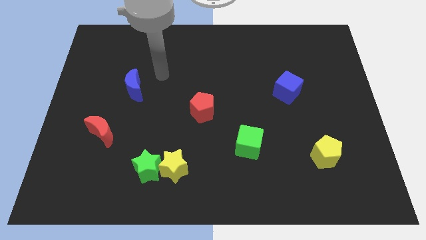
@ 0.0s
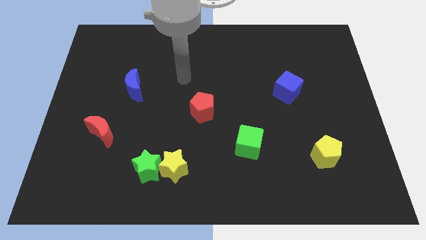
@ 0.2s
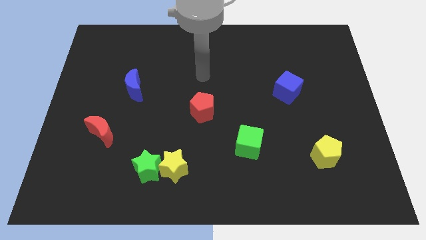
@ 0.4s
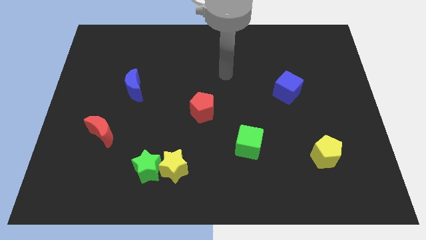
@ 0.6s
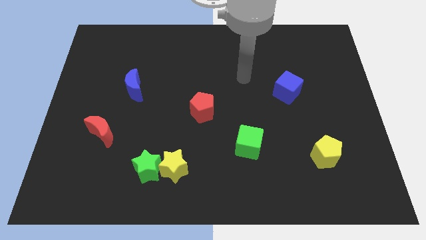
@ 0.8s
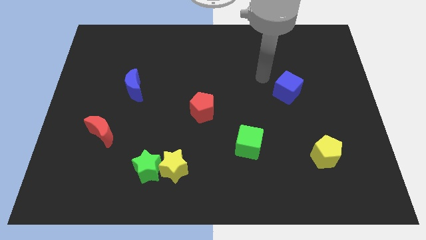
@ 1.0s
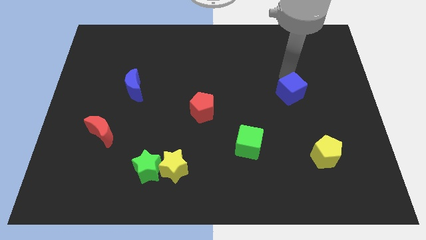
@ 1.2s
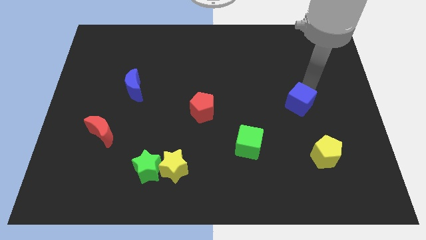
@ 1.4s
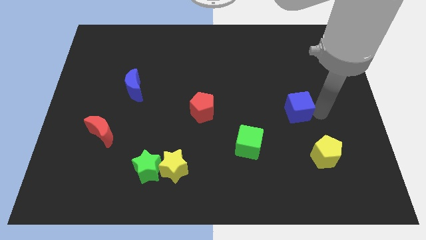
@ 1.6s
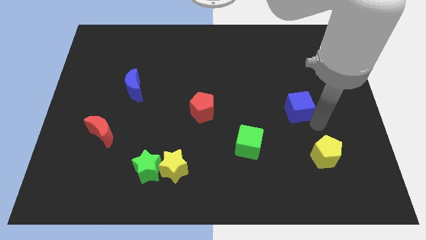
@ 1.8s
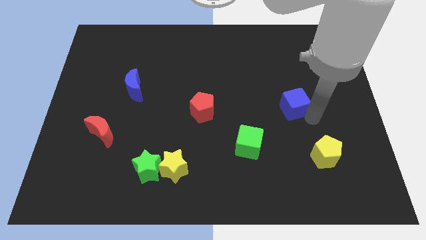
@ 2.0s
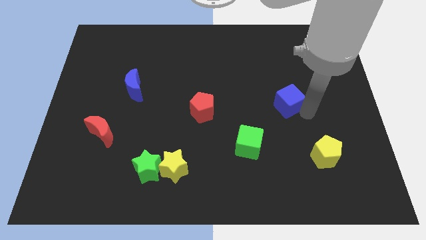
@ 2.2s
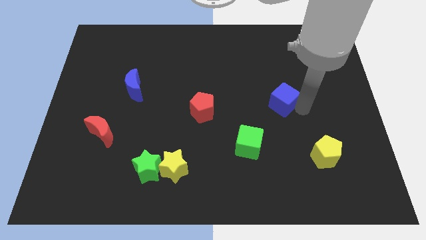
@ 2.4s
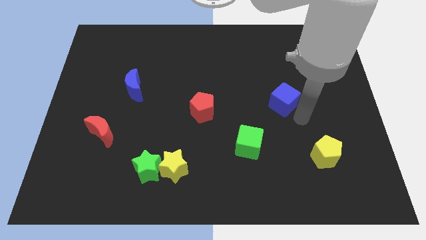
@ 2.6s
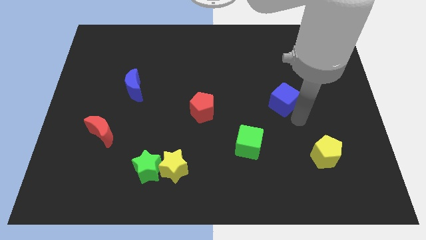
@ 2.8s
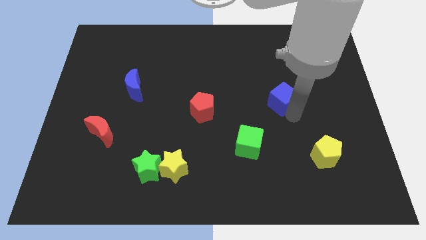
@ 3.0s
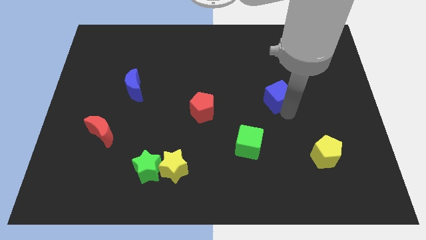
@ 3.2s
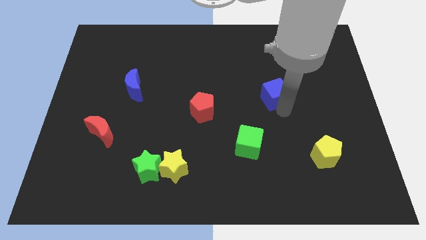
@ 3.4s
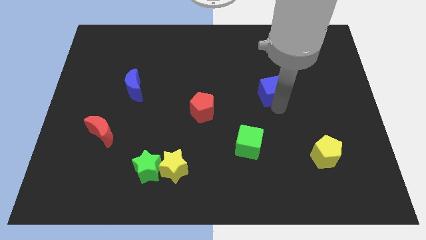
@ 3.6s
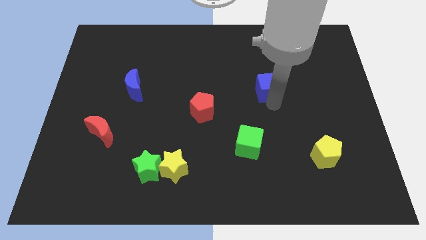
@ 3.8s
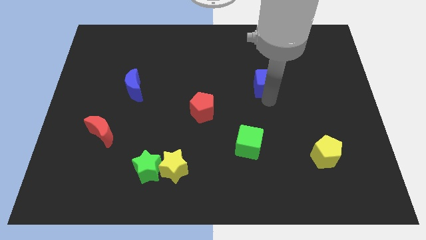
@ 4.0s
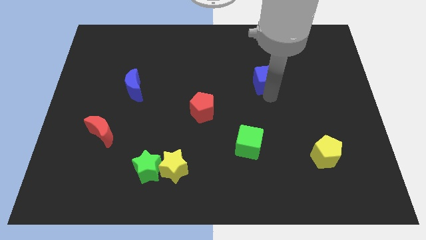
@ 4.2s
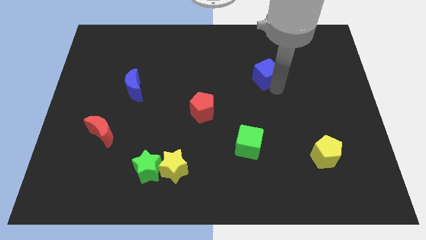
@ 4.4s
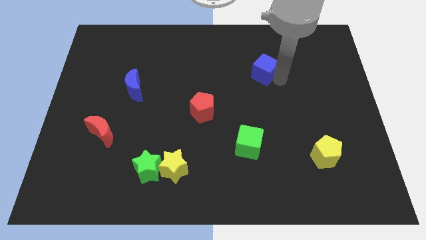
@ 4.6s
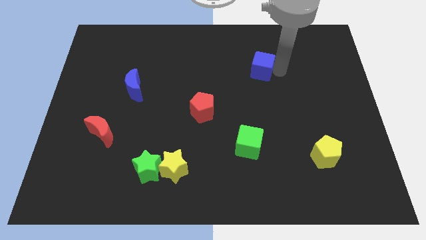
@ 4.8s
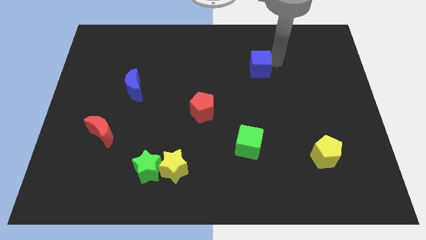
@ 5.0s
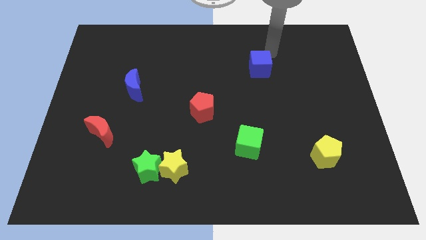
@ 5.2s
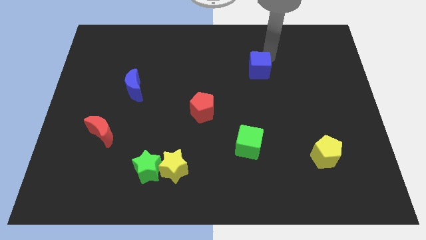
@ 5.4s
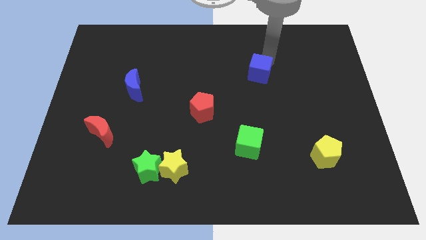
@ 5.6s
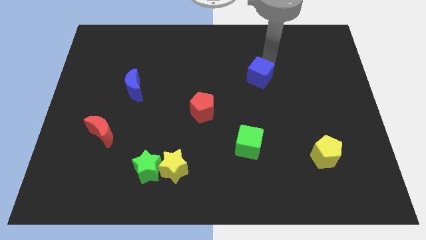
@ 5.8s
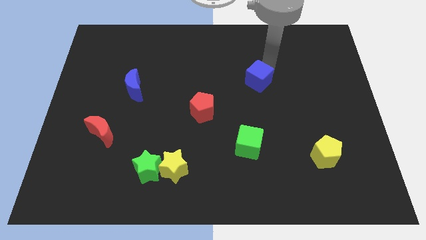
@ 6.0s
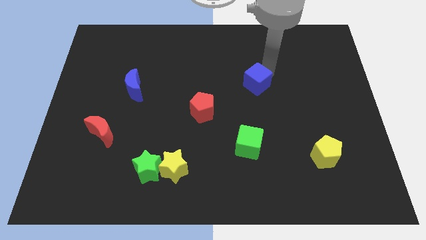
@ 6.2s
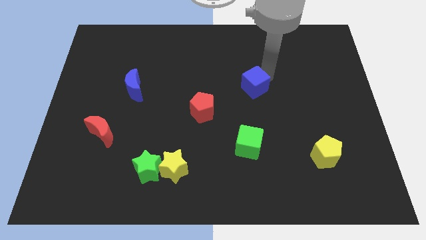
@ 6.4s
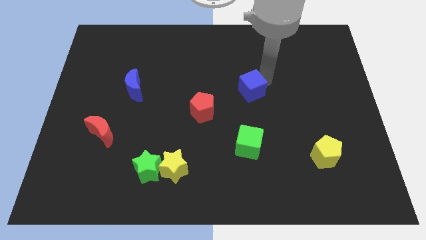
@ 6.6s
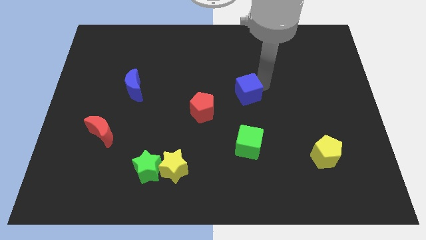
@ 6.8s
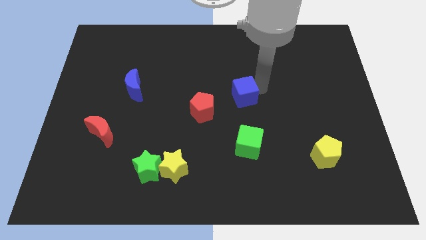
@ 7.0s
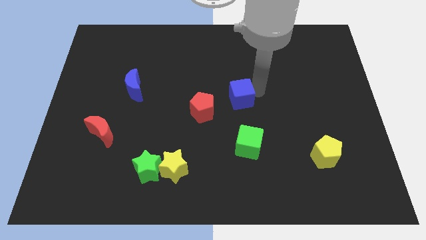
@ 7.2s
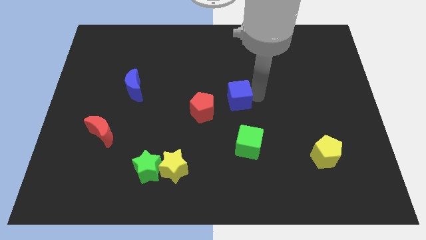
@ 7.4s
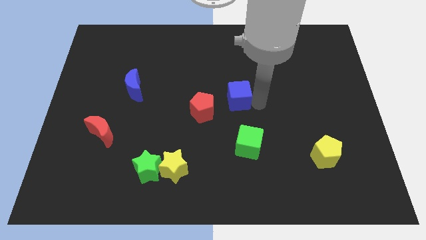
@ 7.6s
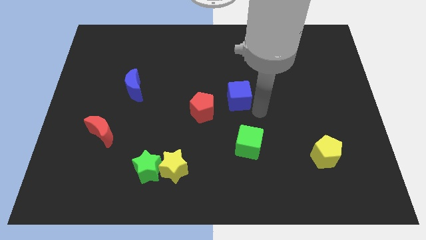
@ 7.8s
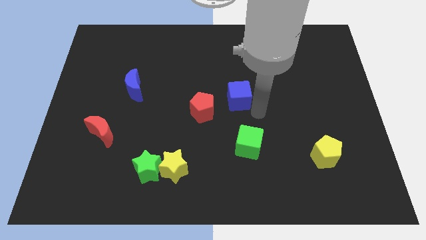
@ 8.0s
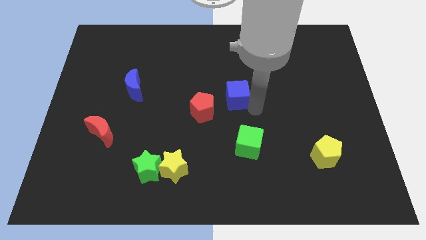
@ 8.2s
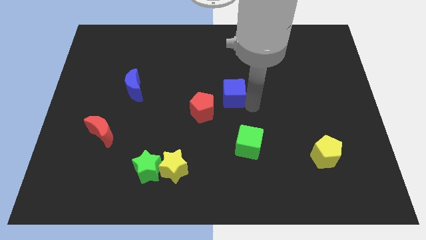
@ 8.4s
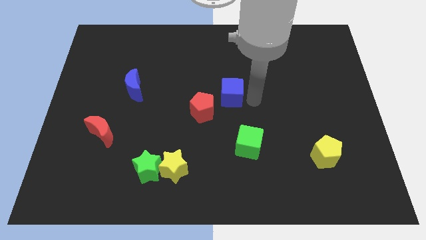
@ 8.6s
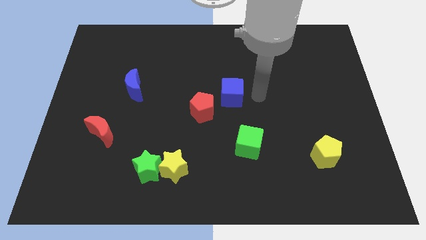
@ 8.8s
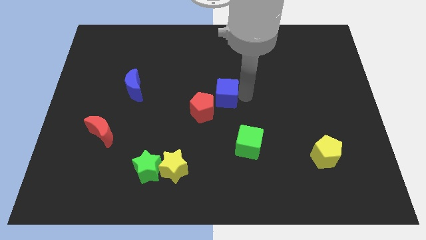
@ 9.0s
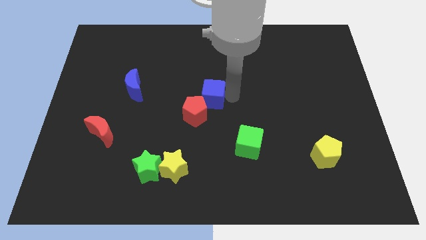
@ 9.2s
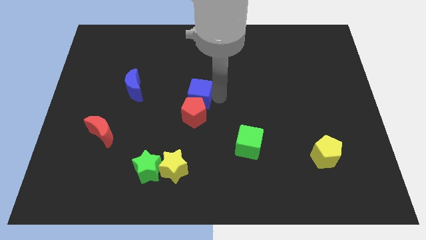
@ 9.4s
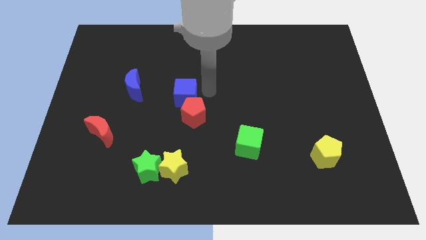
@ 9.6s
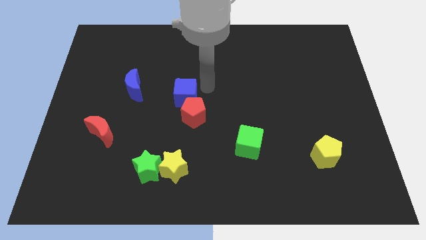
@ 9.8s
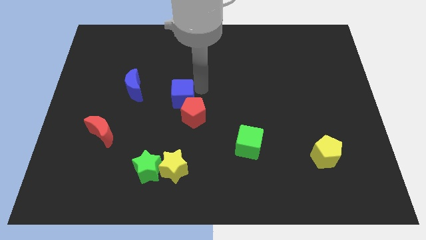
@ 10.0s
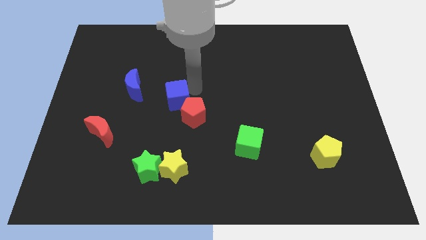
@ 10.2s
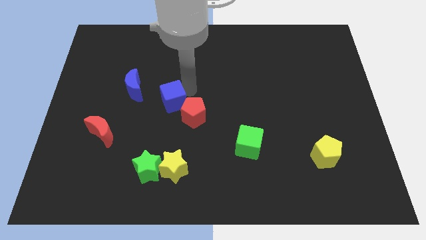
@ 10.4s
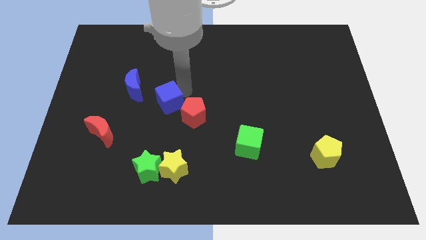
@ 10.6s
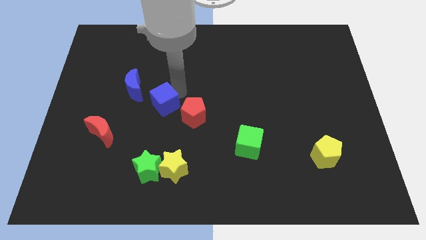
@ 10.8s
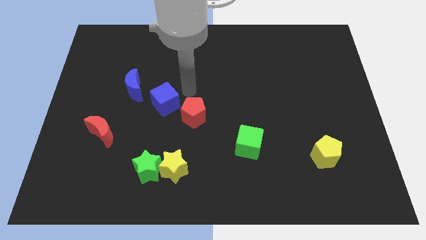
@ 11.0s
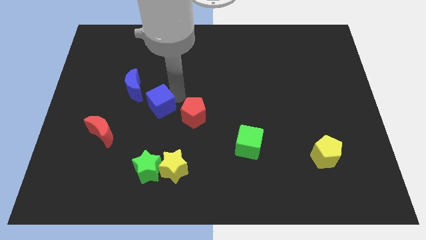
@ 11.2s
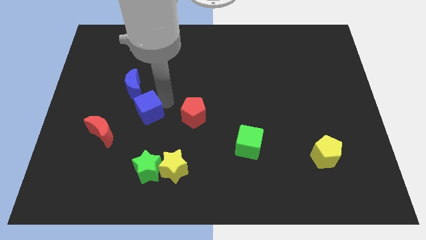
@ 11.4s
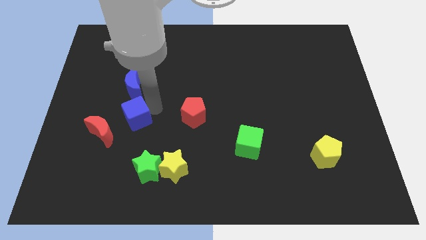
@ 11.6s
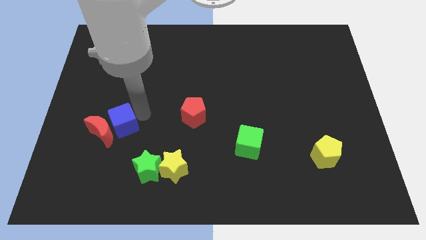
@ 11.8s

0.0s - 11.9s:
put the blue cube to the red moon

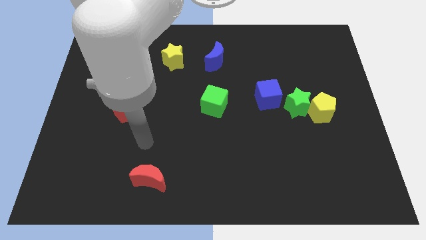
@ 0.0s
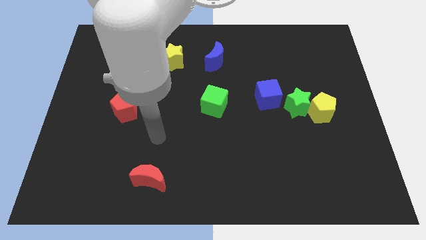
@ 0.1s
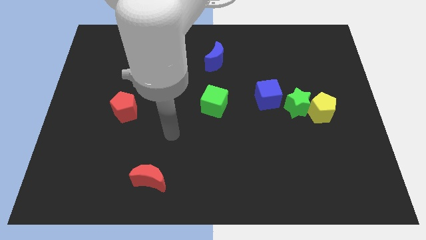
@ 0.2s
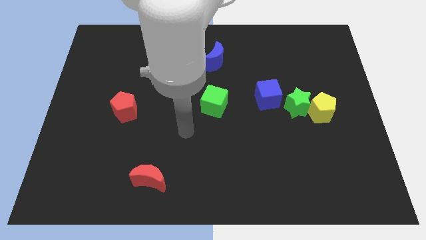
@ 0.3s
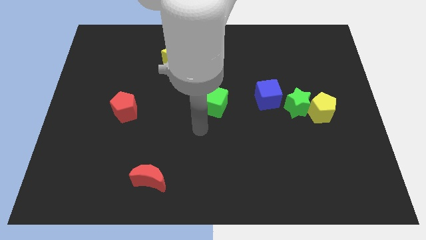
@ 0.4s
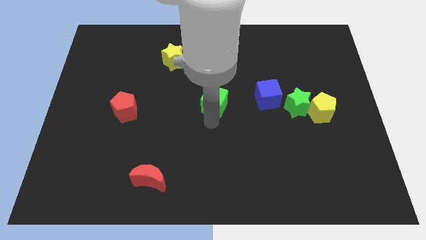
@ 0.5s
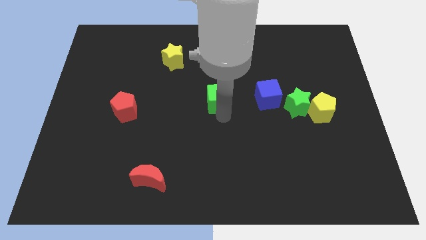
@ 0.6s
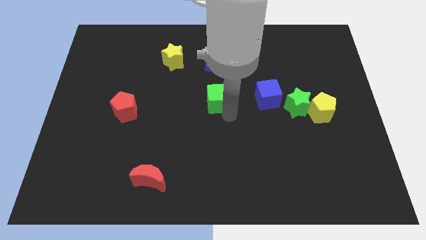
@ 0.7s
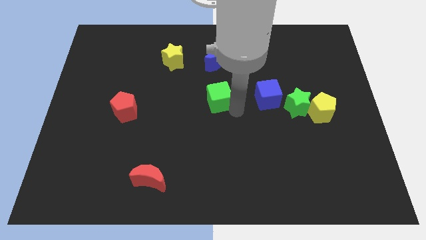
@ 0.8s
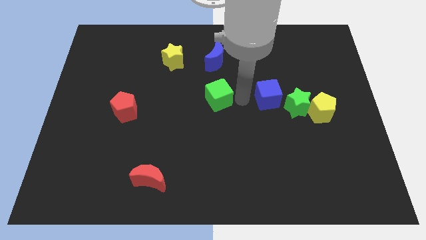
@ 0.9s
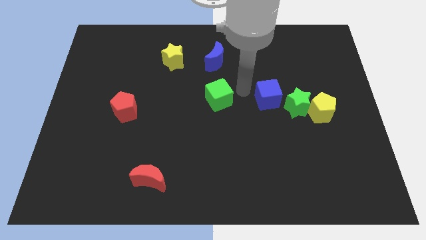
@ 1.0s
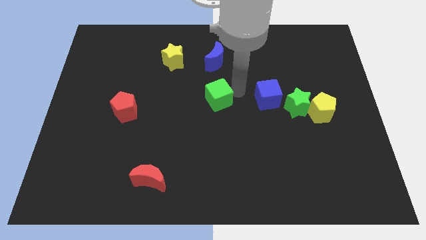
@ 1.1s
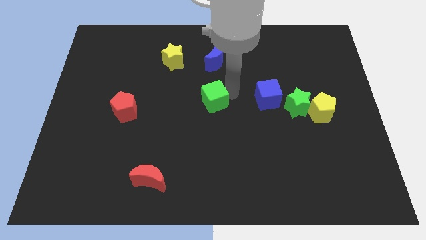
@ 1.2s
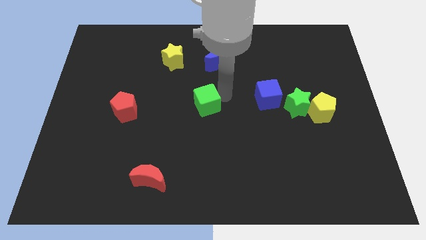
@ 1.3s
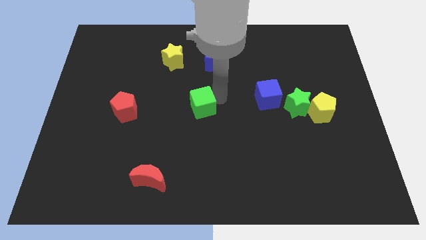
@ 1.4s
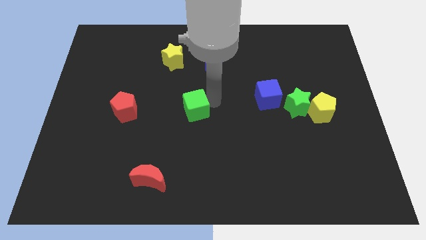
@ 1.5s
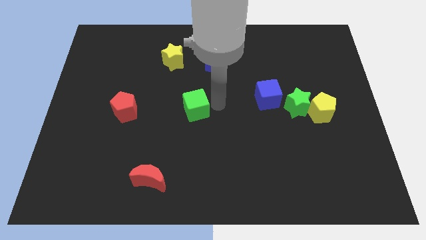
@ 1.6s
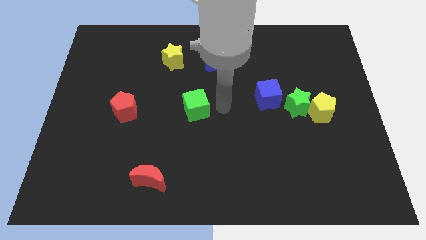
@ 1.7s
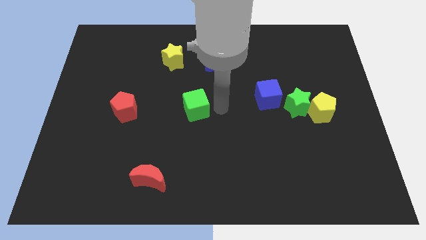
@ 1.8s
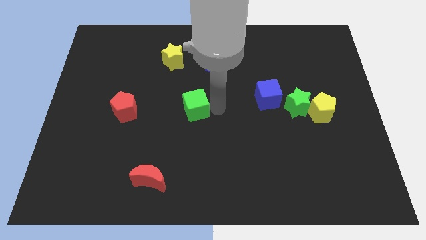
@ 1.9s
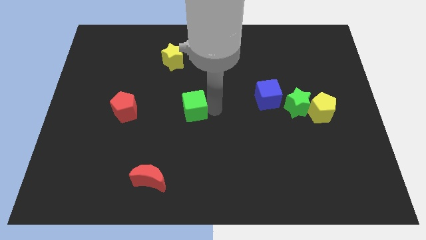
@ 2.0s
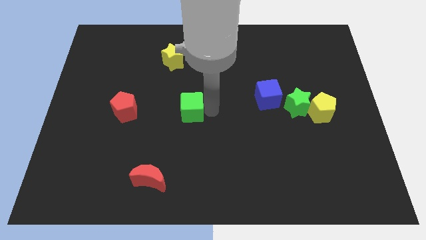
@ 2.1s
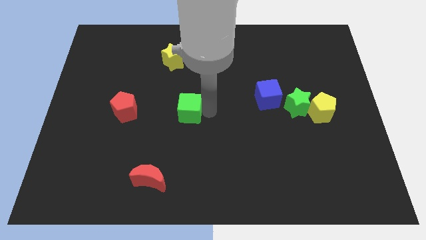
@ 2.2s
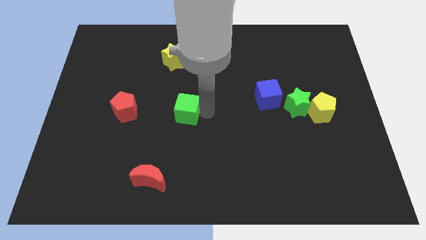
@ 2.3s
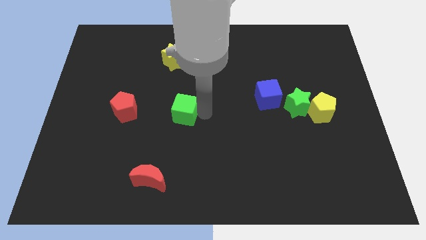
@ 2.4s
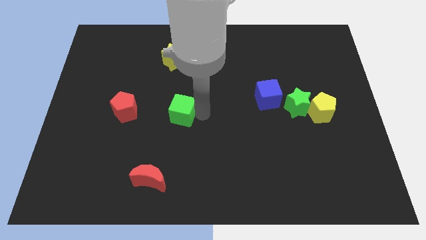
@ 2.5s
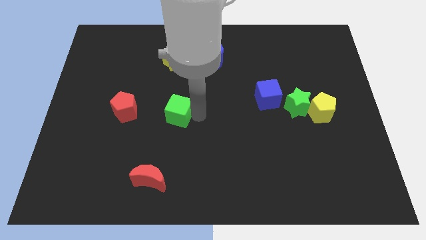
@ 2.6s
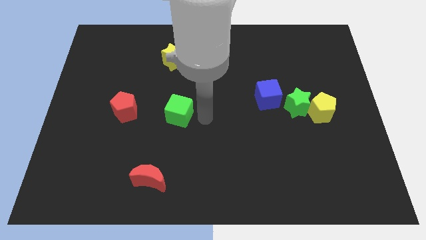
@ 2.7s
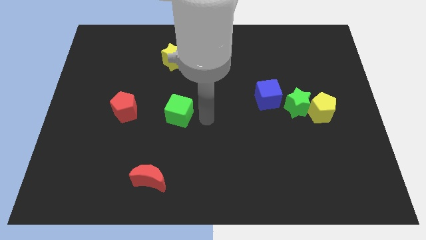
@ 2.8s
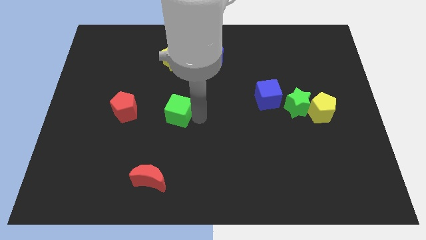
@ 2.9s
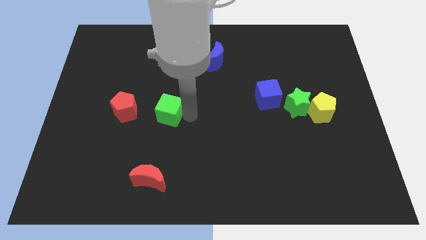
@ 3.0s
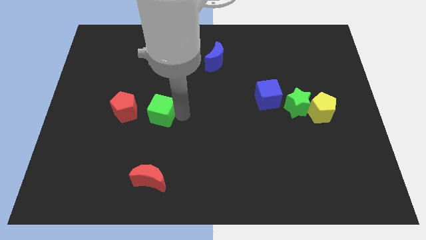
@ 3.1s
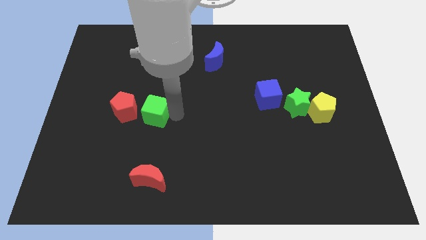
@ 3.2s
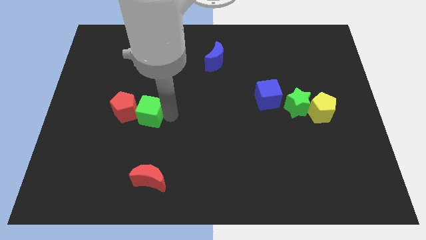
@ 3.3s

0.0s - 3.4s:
slide the green cube close to the red pentagon
